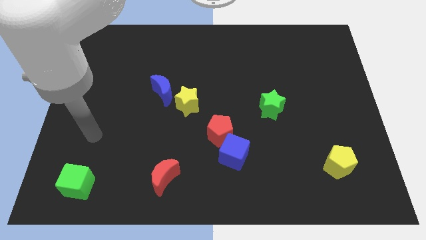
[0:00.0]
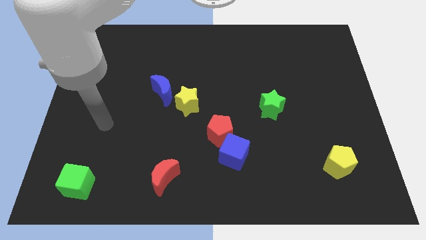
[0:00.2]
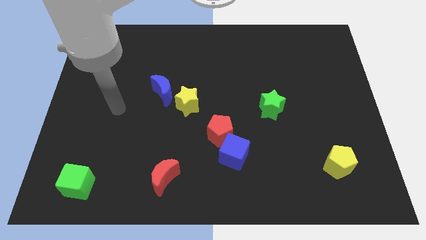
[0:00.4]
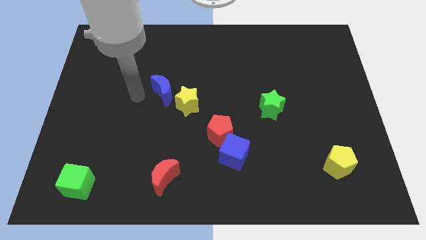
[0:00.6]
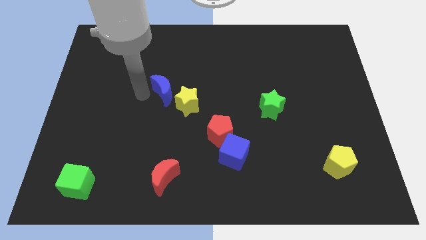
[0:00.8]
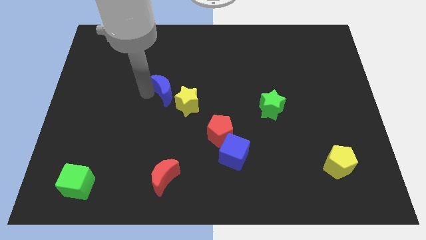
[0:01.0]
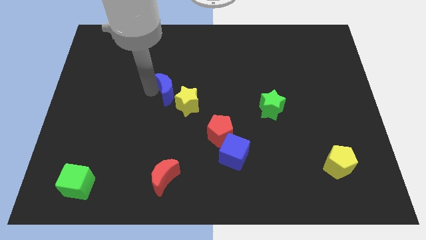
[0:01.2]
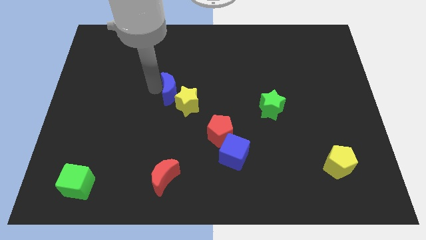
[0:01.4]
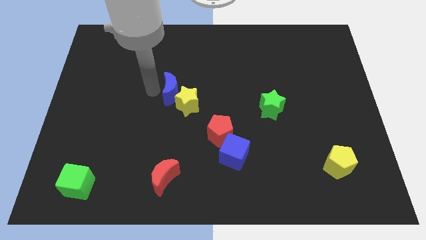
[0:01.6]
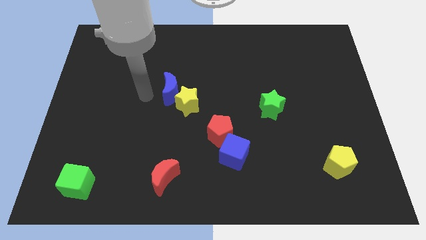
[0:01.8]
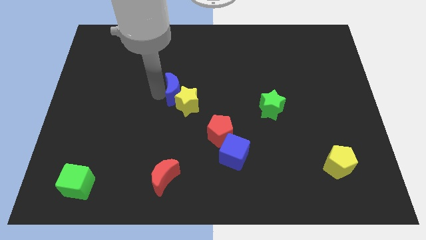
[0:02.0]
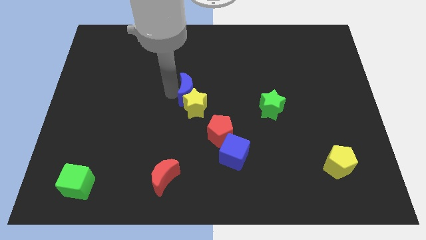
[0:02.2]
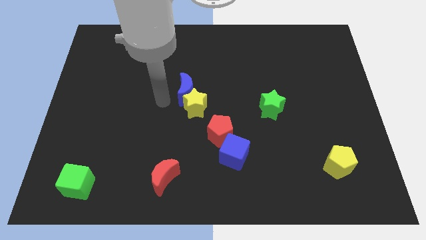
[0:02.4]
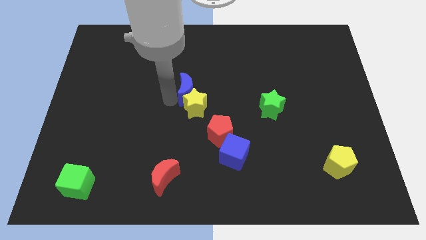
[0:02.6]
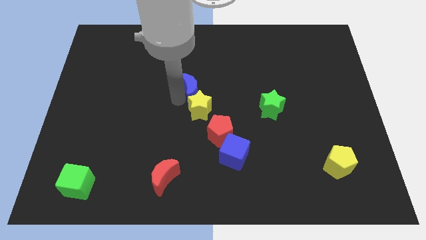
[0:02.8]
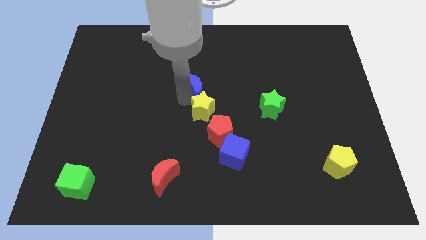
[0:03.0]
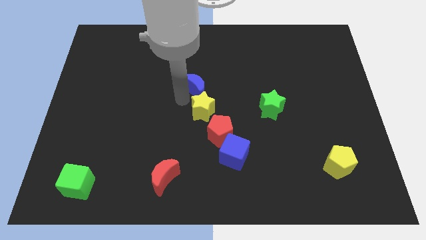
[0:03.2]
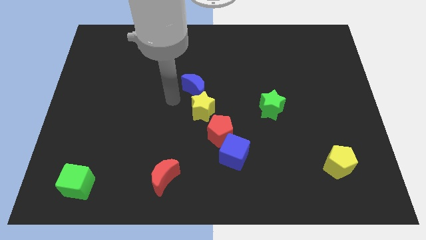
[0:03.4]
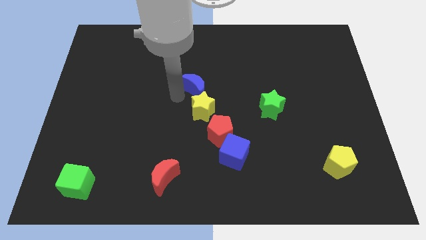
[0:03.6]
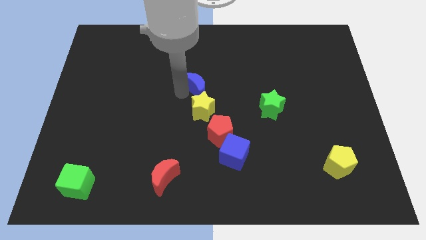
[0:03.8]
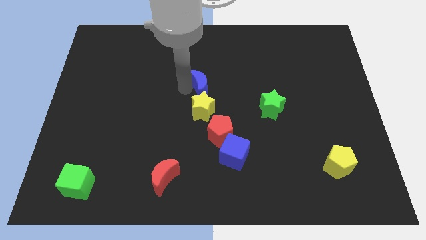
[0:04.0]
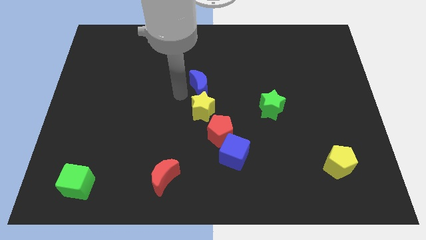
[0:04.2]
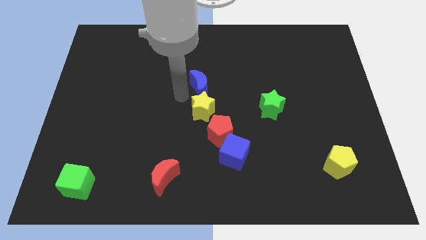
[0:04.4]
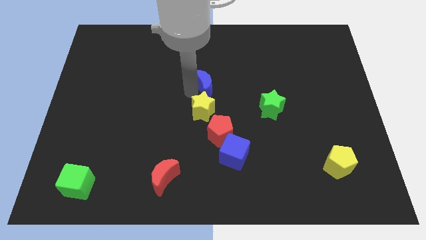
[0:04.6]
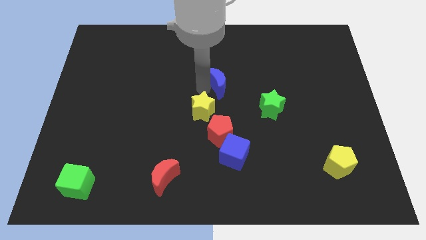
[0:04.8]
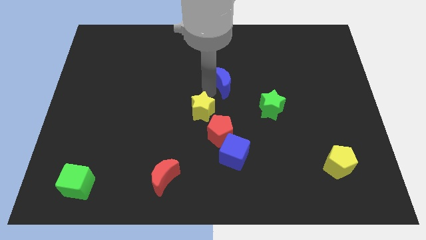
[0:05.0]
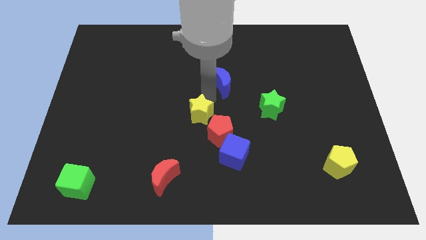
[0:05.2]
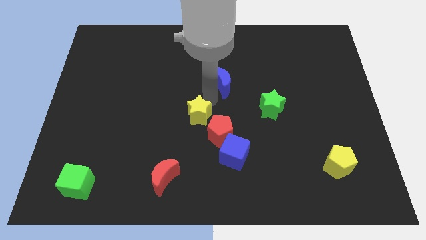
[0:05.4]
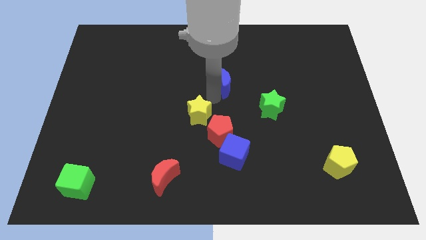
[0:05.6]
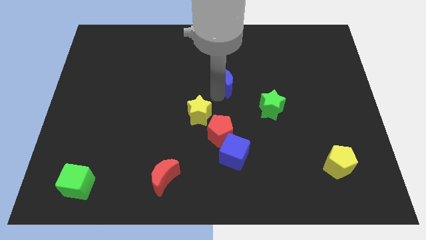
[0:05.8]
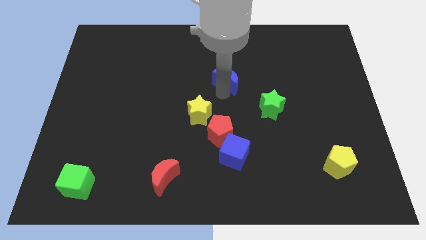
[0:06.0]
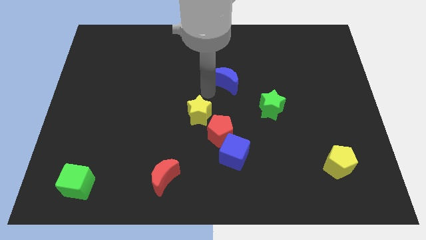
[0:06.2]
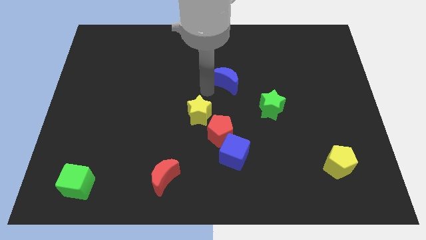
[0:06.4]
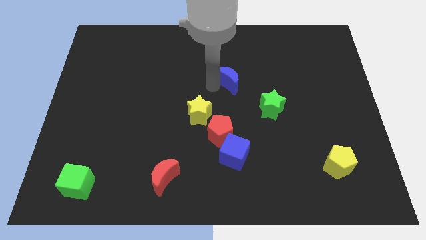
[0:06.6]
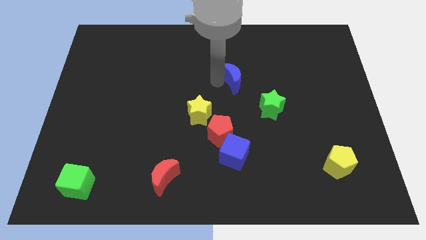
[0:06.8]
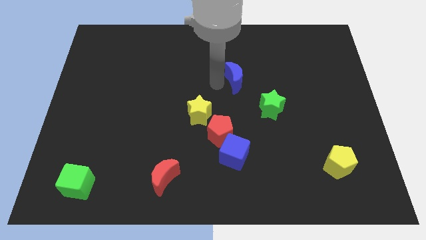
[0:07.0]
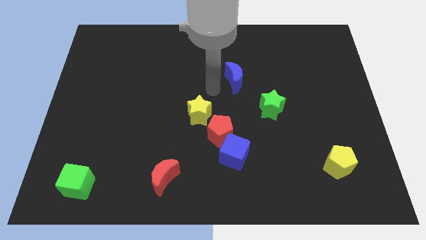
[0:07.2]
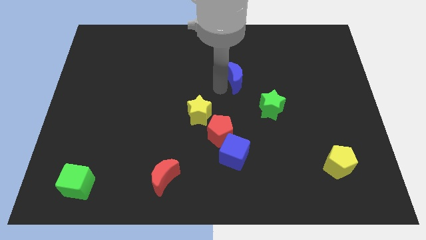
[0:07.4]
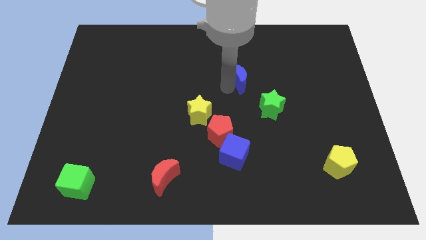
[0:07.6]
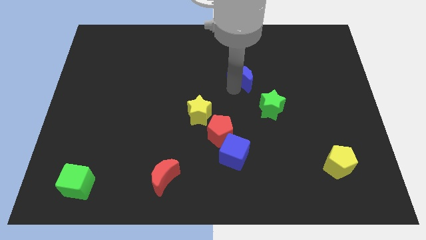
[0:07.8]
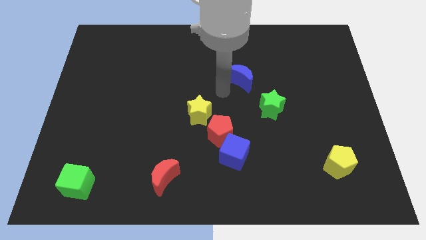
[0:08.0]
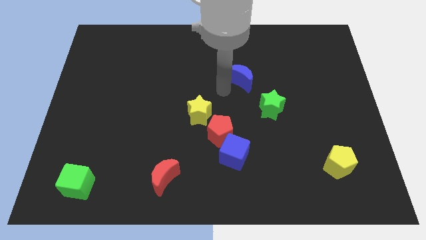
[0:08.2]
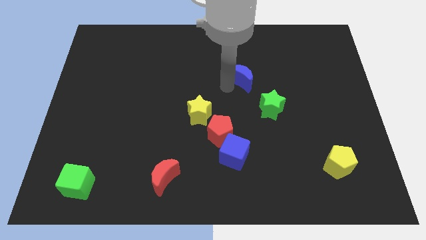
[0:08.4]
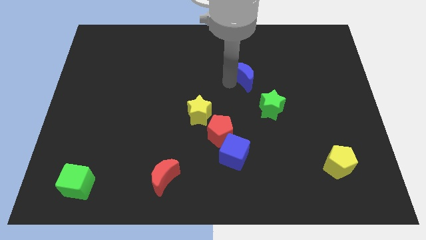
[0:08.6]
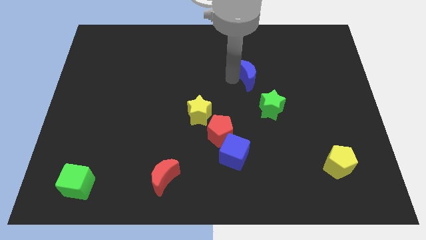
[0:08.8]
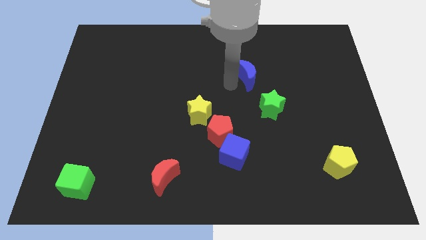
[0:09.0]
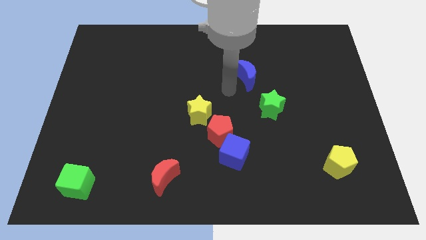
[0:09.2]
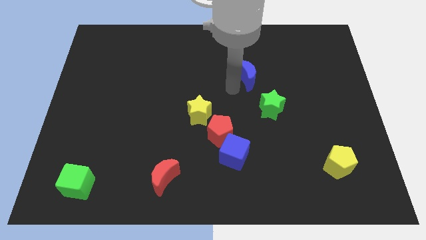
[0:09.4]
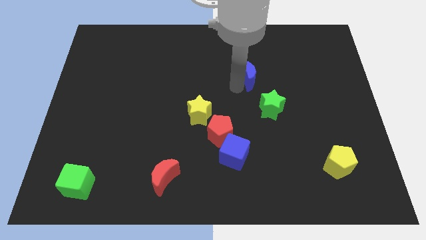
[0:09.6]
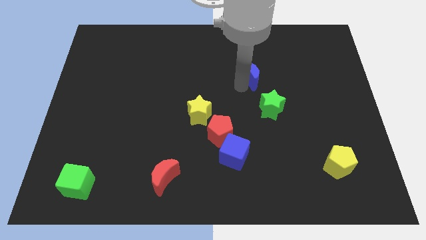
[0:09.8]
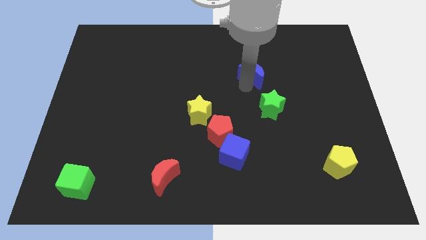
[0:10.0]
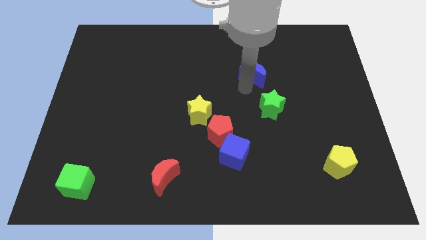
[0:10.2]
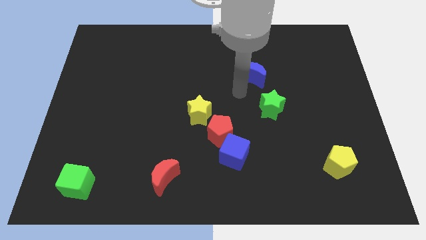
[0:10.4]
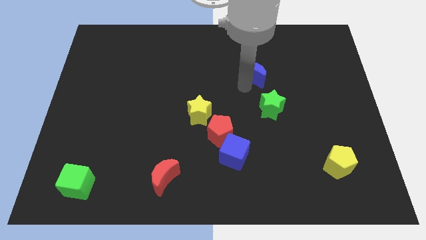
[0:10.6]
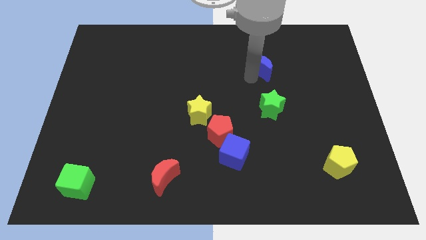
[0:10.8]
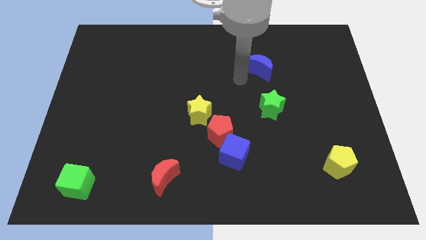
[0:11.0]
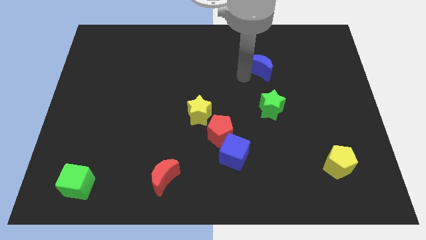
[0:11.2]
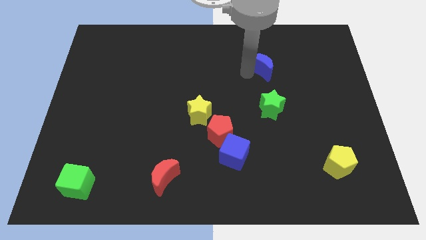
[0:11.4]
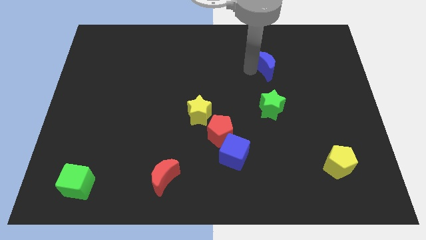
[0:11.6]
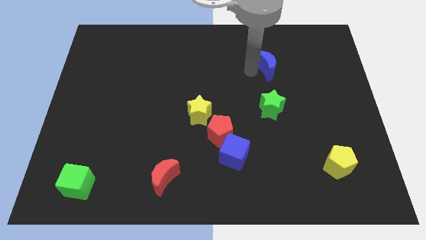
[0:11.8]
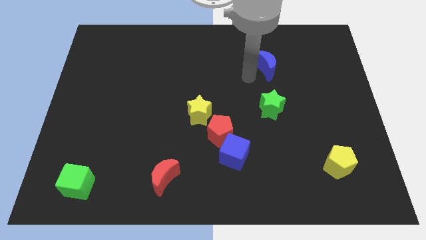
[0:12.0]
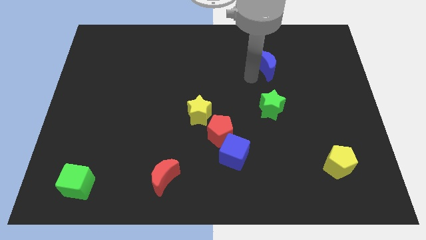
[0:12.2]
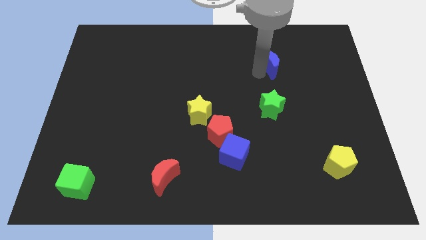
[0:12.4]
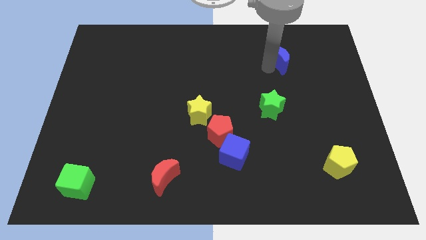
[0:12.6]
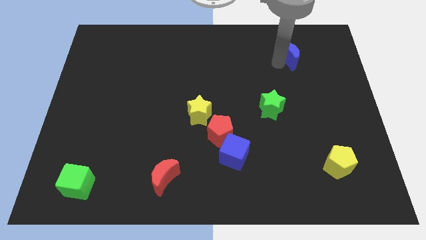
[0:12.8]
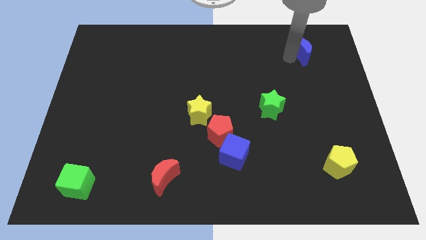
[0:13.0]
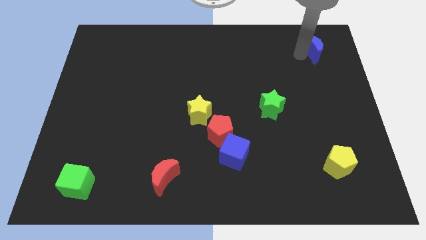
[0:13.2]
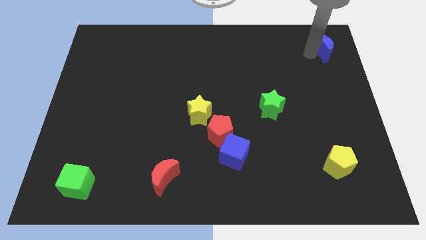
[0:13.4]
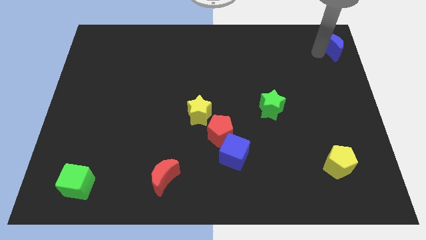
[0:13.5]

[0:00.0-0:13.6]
slide the blue moon to the top right
